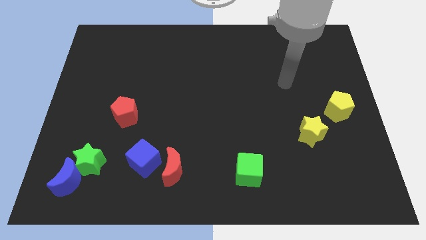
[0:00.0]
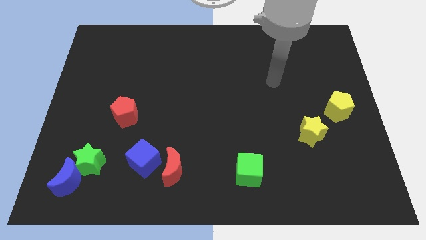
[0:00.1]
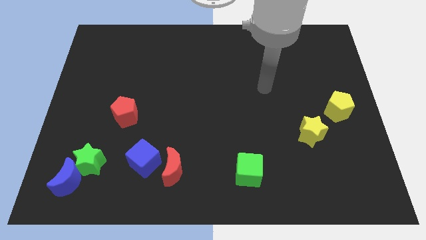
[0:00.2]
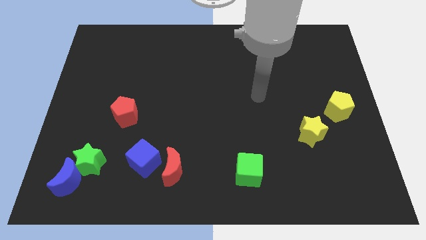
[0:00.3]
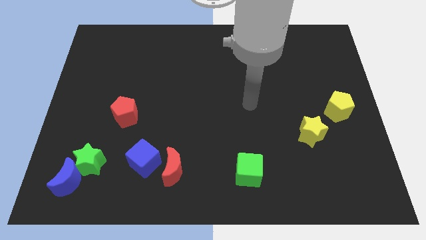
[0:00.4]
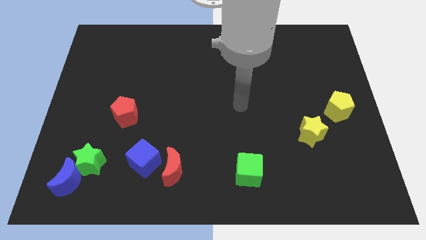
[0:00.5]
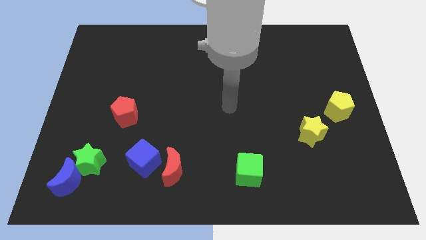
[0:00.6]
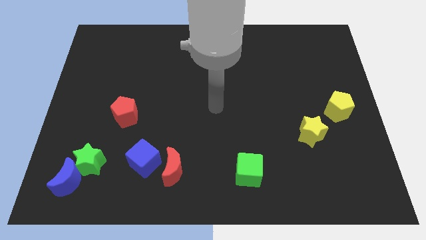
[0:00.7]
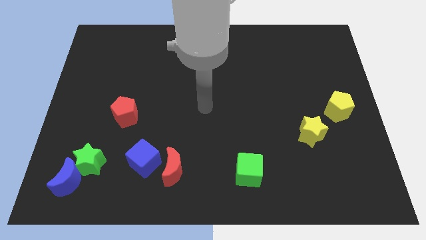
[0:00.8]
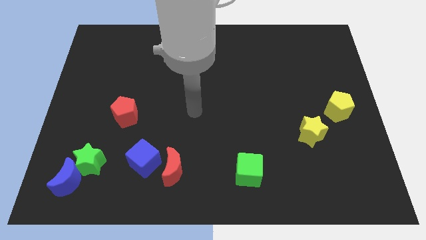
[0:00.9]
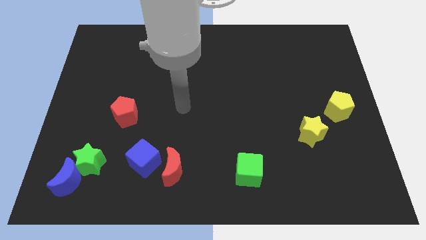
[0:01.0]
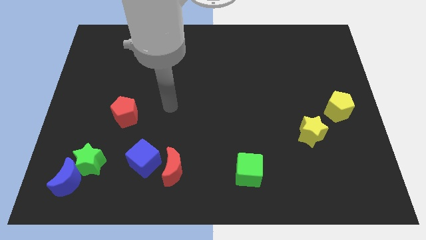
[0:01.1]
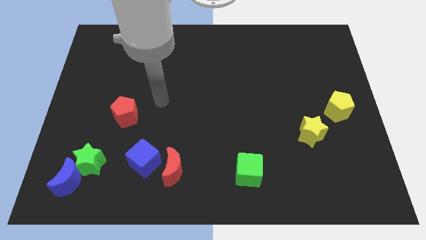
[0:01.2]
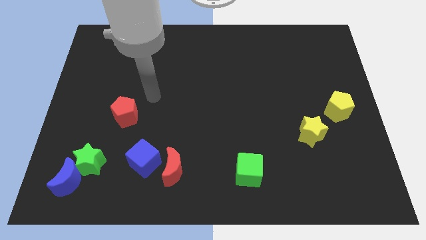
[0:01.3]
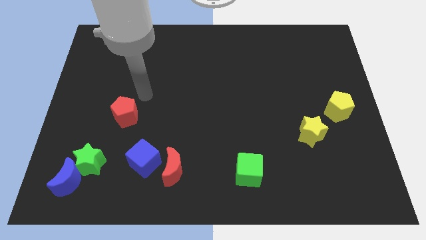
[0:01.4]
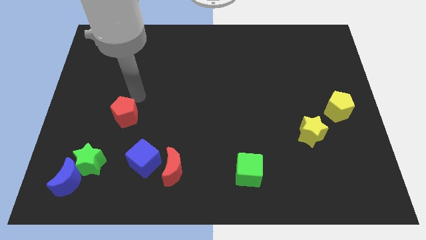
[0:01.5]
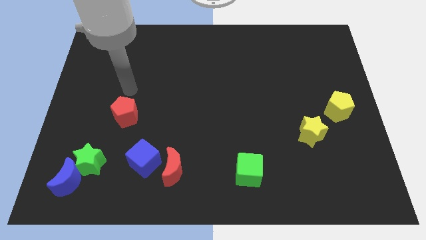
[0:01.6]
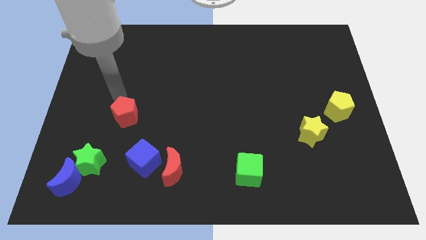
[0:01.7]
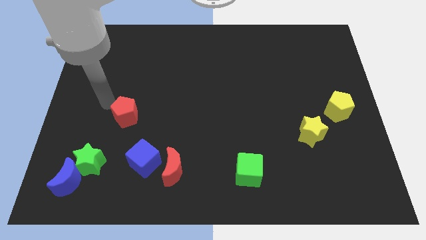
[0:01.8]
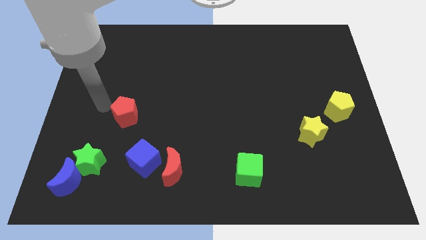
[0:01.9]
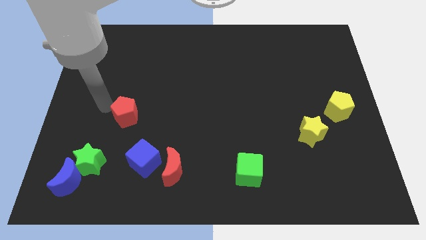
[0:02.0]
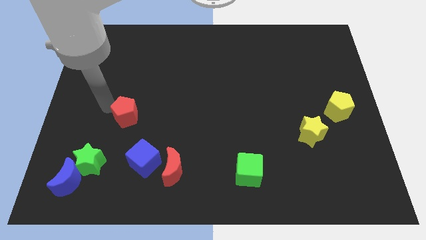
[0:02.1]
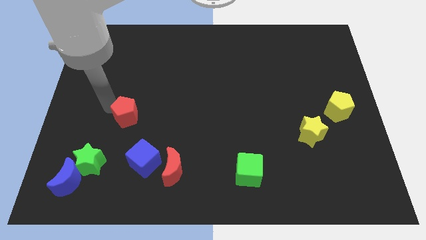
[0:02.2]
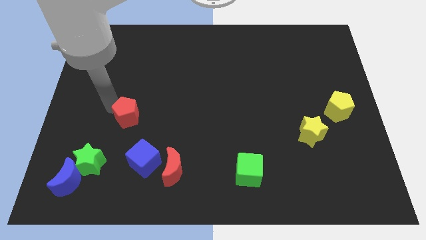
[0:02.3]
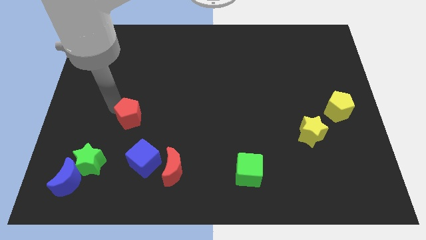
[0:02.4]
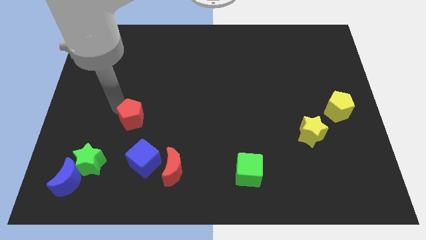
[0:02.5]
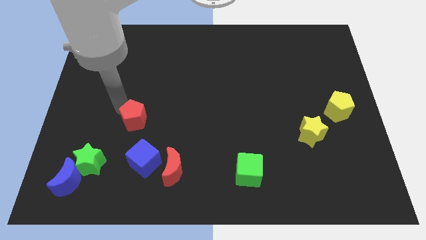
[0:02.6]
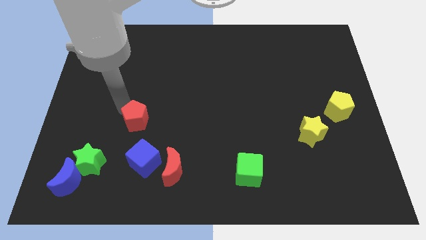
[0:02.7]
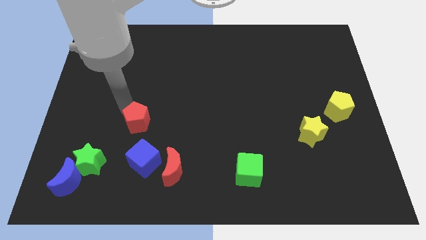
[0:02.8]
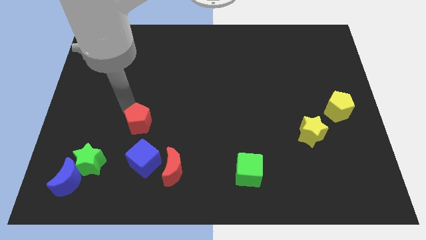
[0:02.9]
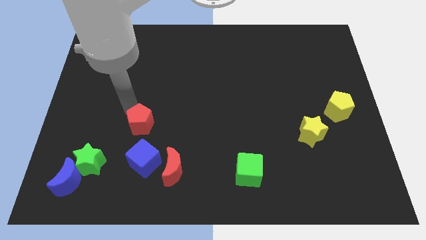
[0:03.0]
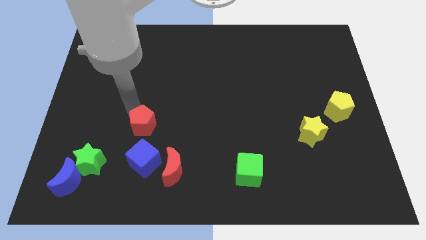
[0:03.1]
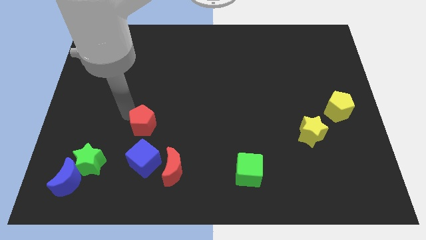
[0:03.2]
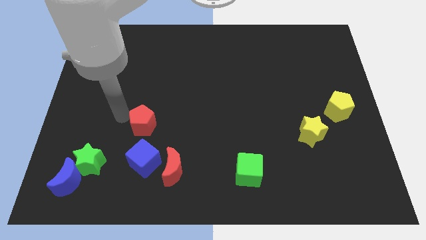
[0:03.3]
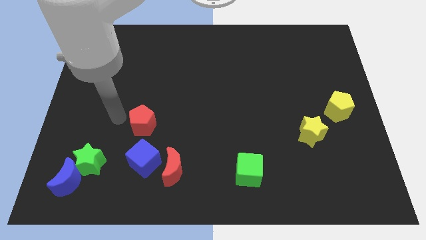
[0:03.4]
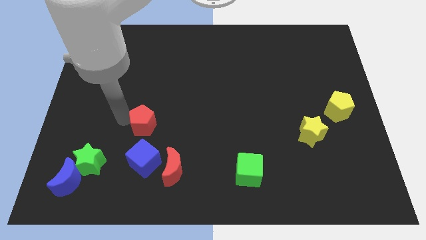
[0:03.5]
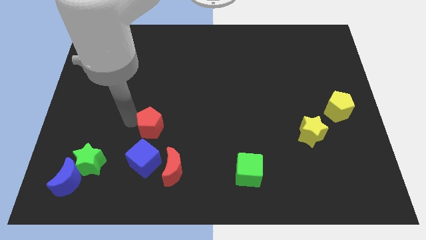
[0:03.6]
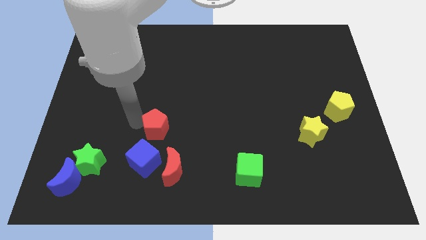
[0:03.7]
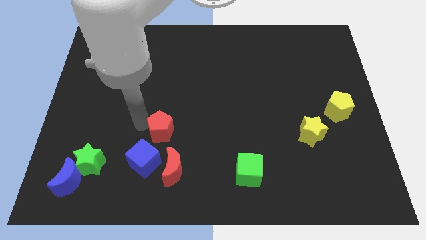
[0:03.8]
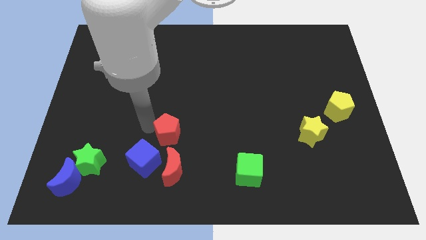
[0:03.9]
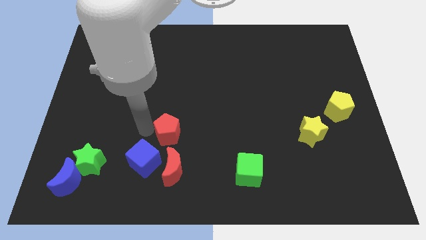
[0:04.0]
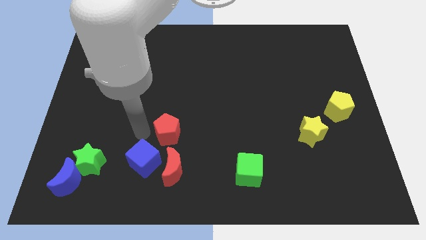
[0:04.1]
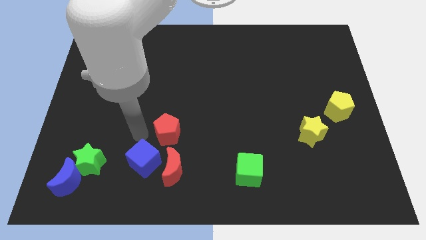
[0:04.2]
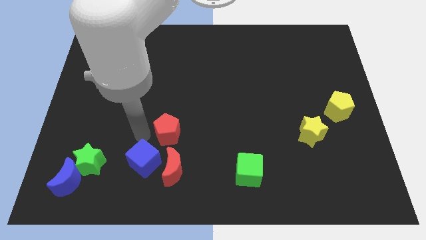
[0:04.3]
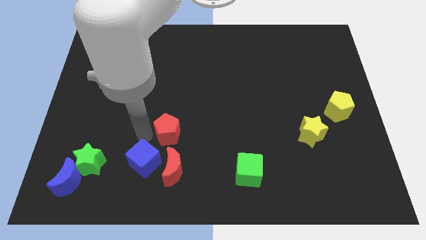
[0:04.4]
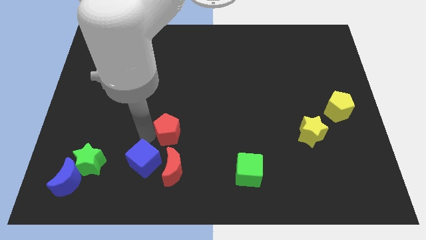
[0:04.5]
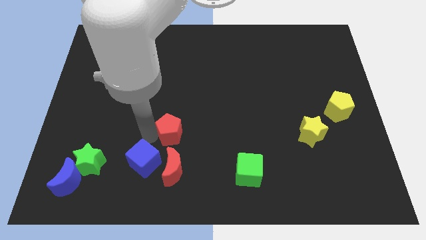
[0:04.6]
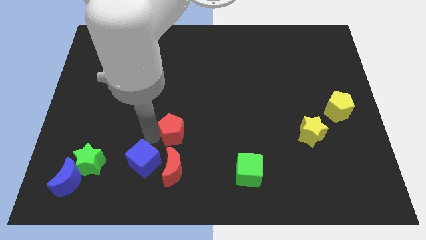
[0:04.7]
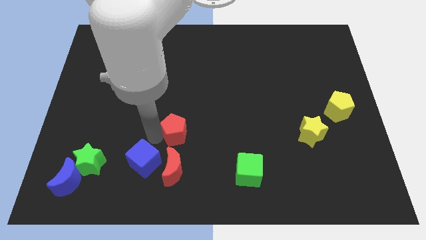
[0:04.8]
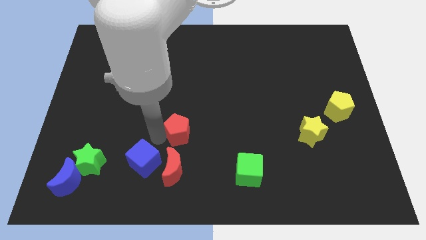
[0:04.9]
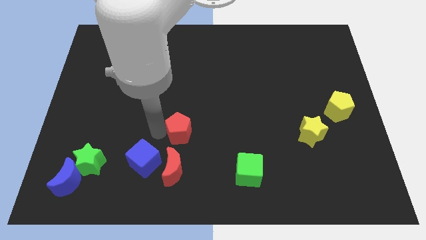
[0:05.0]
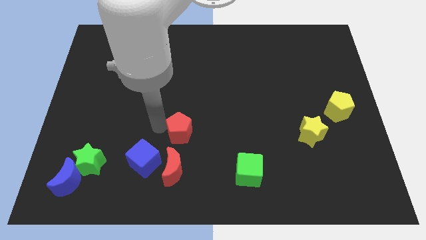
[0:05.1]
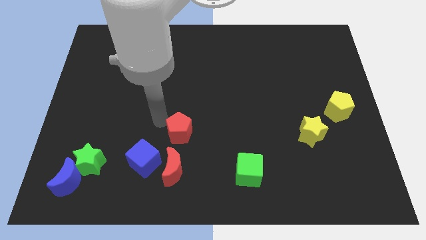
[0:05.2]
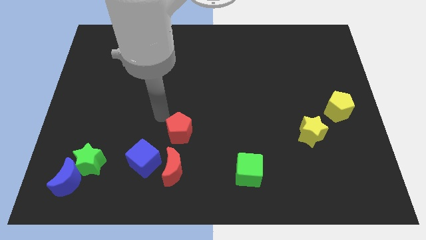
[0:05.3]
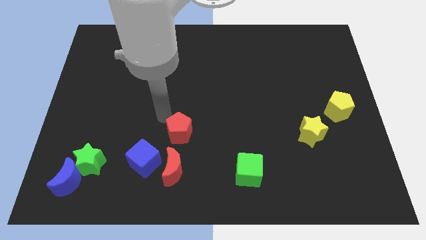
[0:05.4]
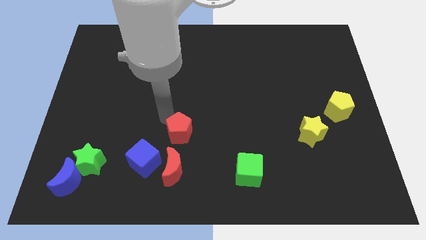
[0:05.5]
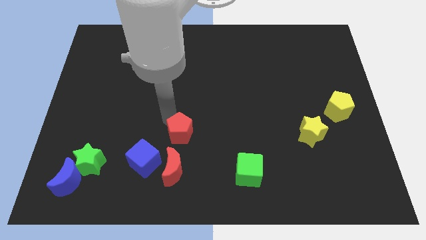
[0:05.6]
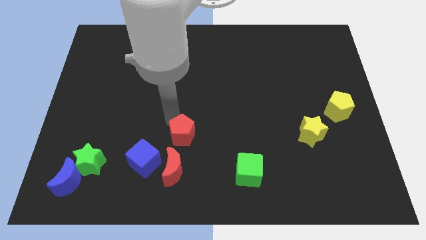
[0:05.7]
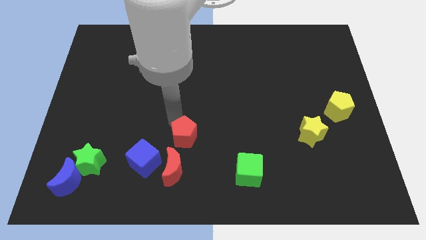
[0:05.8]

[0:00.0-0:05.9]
push the red pentagon diagonally up and to the right of the red moon
